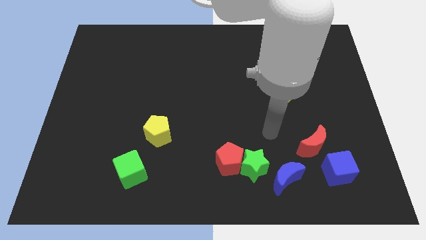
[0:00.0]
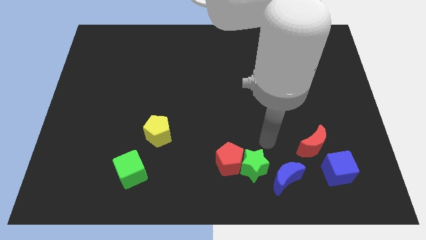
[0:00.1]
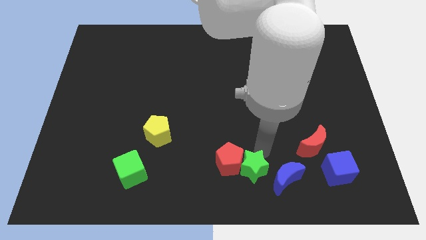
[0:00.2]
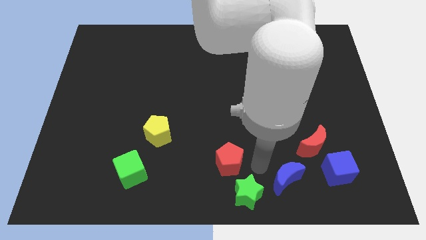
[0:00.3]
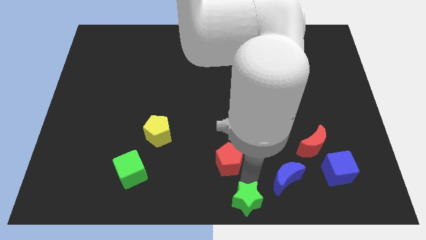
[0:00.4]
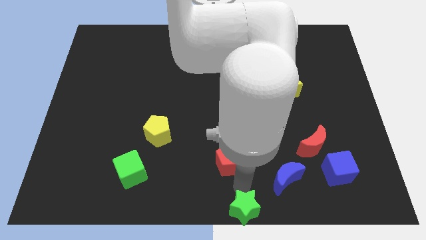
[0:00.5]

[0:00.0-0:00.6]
pull the red pentagon apart from the green star

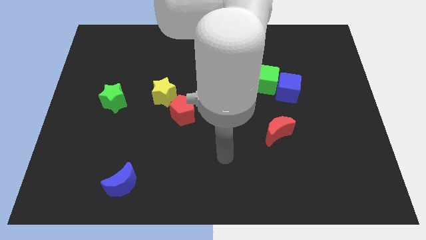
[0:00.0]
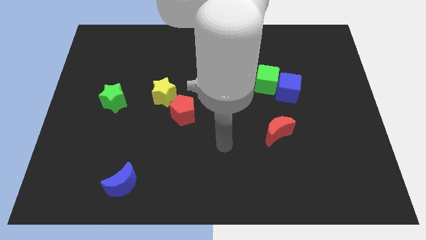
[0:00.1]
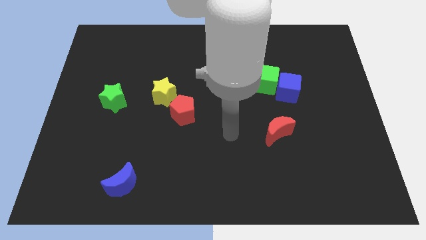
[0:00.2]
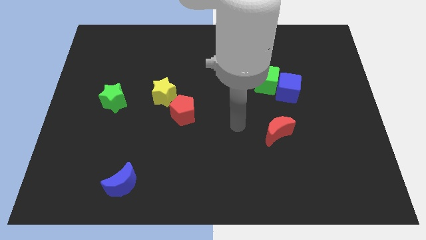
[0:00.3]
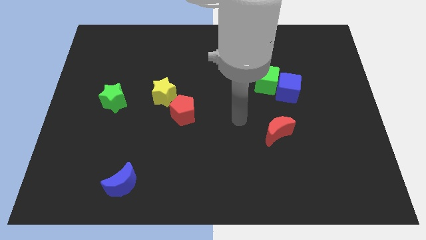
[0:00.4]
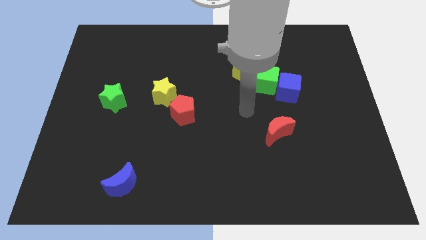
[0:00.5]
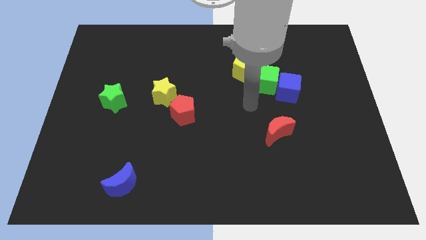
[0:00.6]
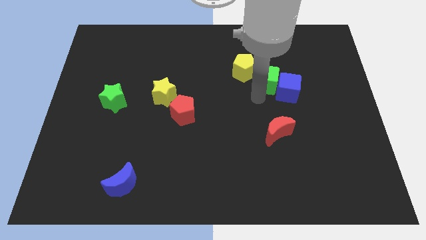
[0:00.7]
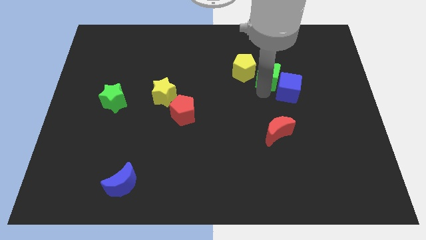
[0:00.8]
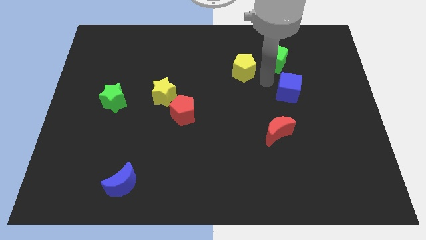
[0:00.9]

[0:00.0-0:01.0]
separate the blue cube from the green cube

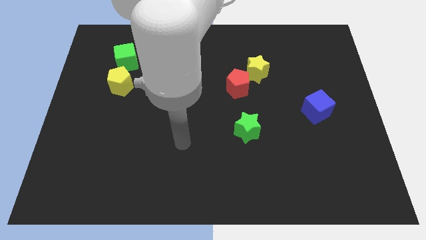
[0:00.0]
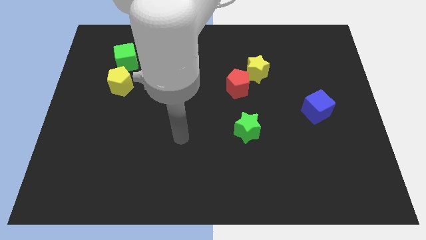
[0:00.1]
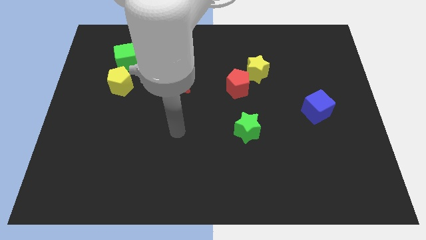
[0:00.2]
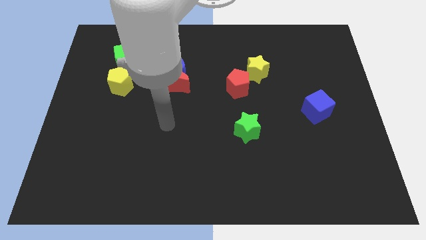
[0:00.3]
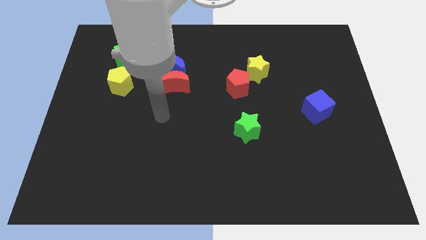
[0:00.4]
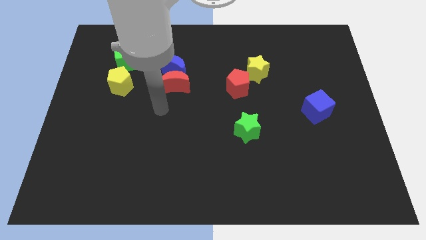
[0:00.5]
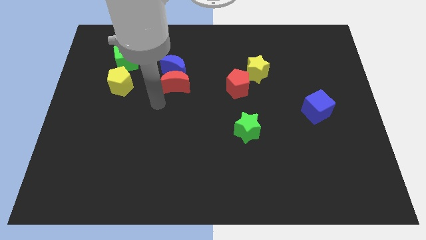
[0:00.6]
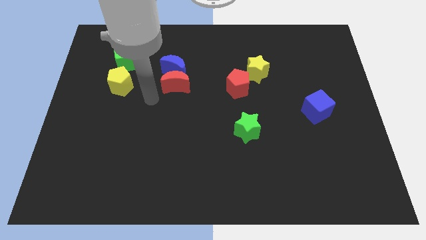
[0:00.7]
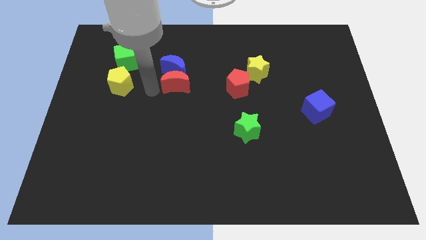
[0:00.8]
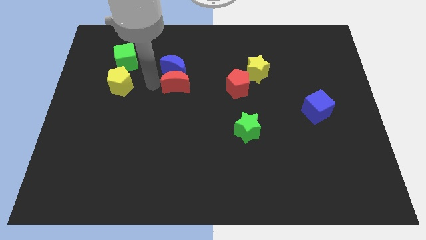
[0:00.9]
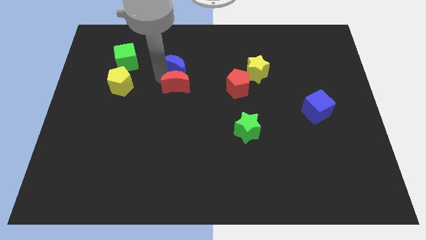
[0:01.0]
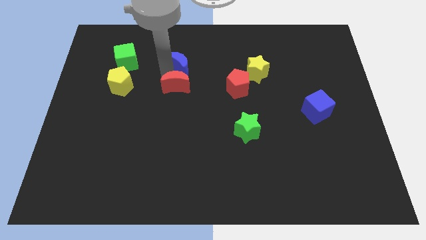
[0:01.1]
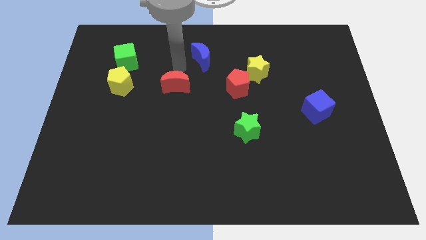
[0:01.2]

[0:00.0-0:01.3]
pull the red moon apart from the blue moon

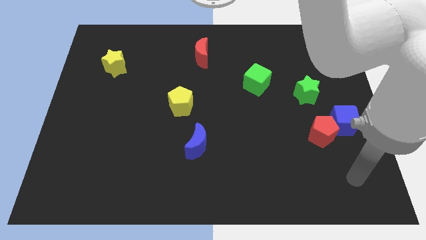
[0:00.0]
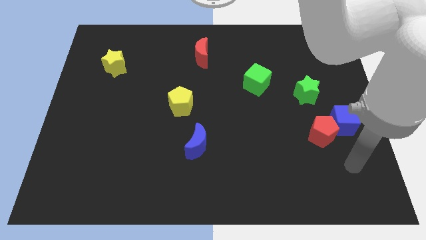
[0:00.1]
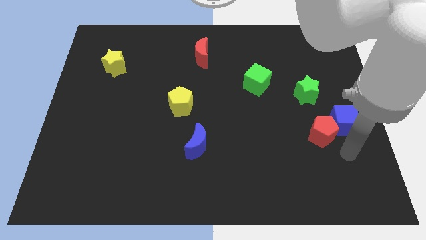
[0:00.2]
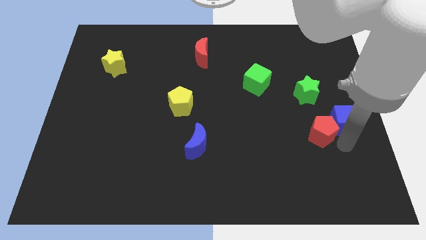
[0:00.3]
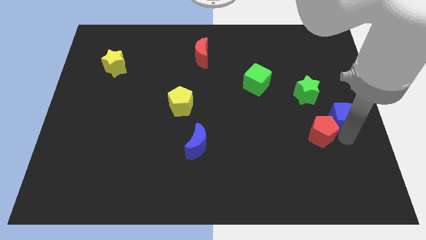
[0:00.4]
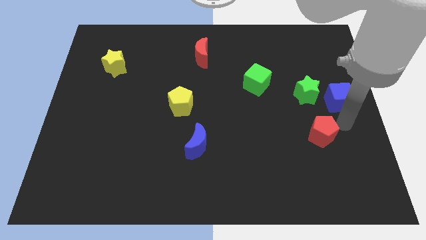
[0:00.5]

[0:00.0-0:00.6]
separate the red pentagon from the blue cube

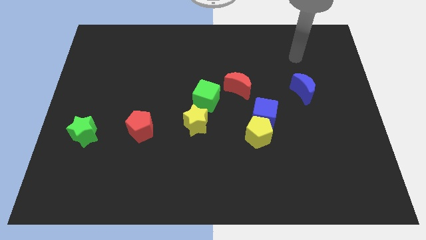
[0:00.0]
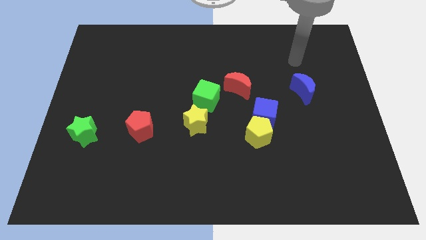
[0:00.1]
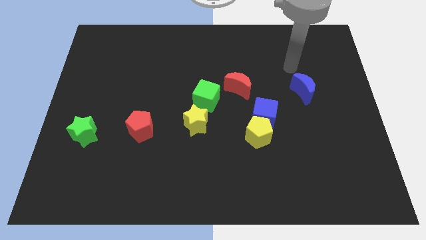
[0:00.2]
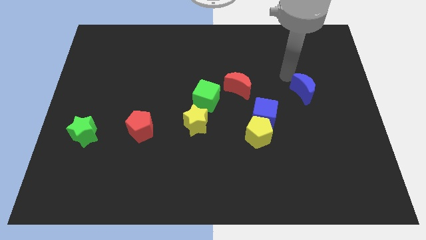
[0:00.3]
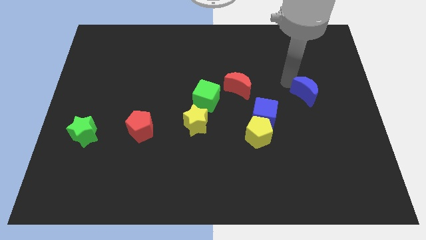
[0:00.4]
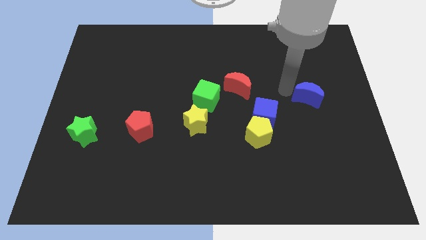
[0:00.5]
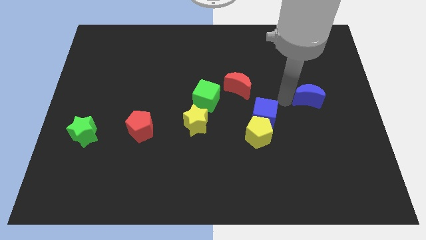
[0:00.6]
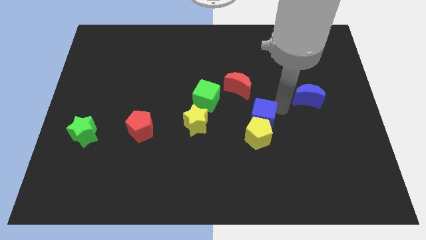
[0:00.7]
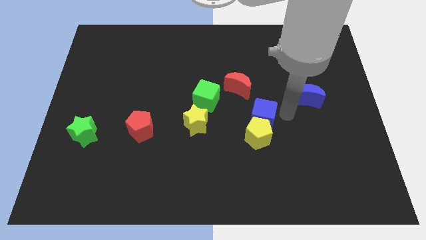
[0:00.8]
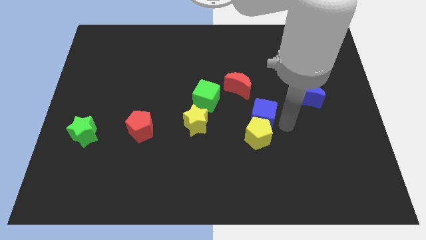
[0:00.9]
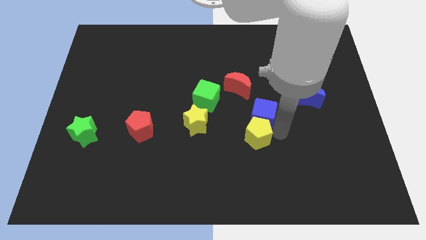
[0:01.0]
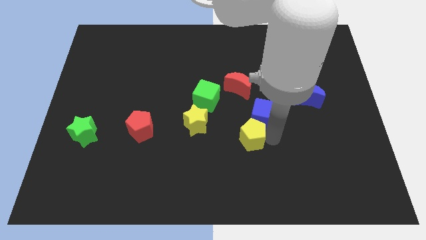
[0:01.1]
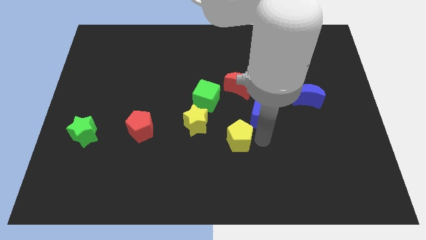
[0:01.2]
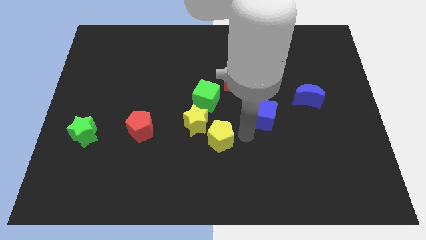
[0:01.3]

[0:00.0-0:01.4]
pull the blue cube apart from the yellow pentagon

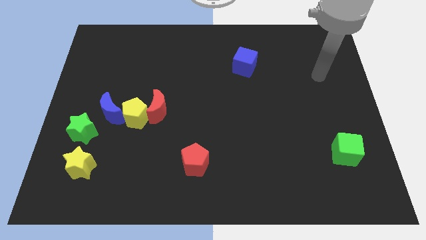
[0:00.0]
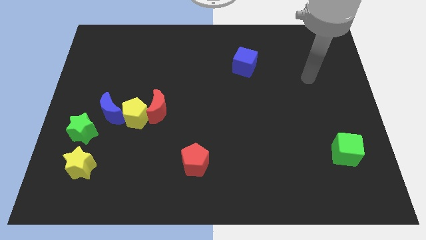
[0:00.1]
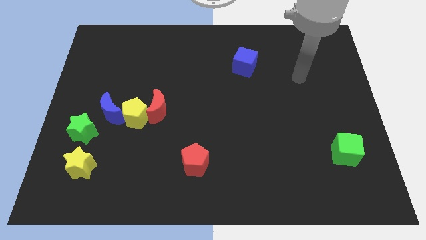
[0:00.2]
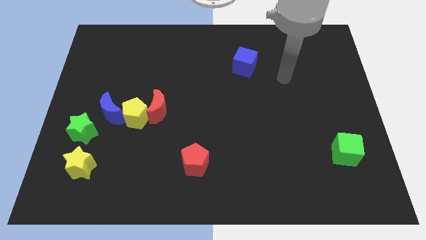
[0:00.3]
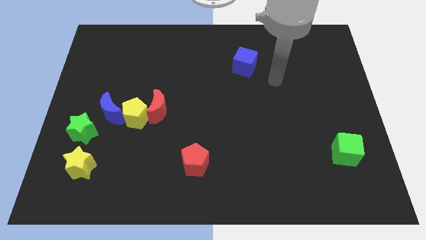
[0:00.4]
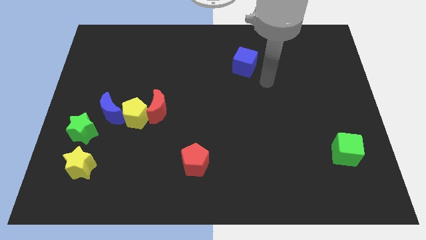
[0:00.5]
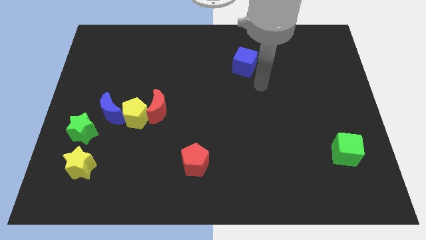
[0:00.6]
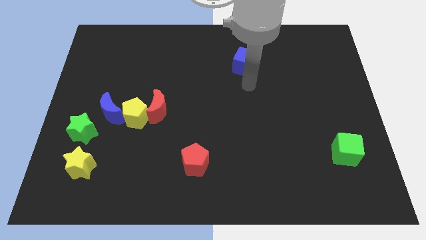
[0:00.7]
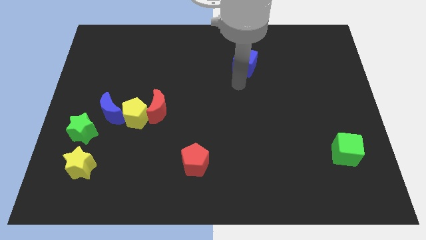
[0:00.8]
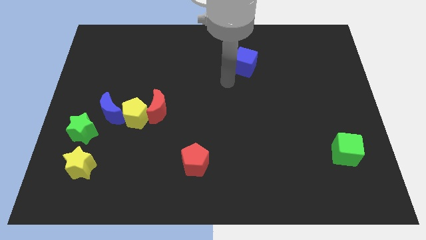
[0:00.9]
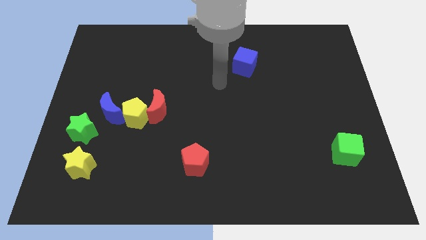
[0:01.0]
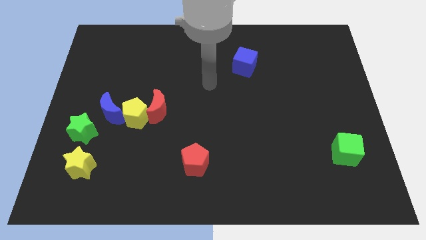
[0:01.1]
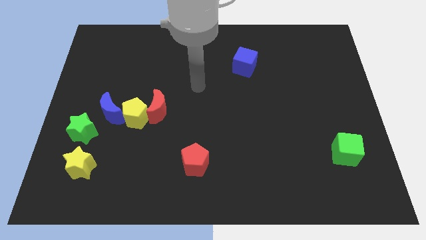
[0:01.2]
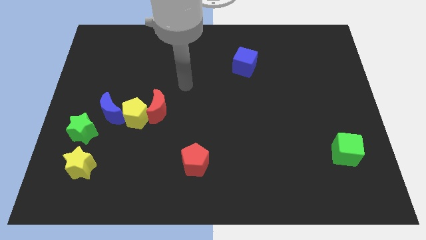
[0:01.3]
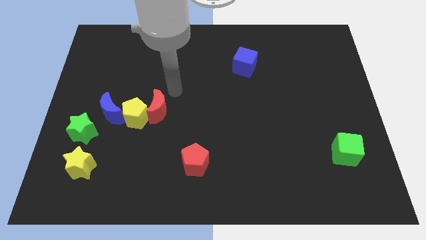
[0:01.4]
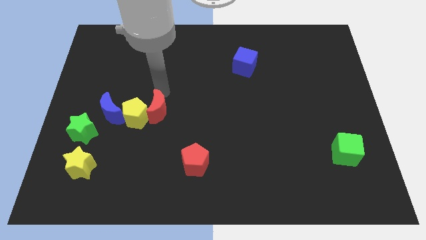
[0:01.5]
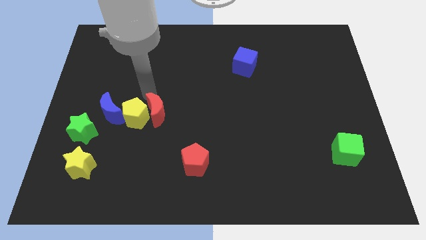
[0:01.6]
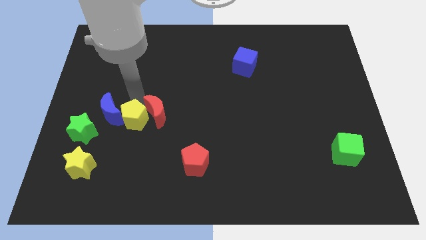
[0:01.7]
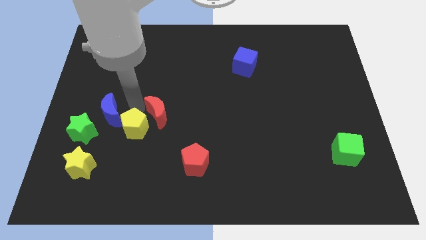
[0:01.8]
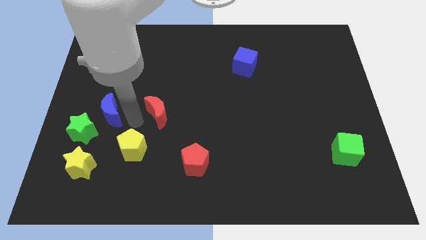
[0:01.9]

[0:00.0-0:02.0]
pull the red moon apart from the yellow pentagon

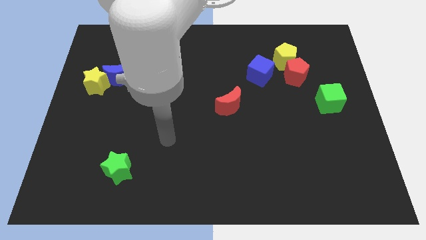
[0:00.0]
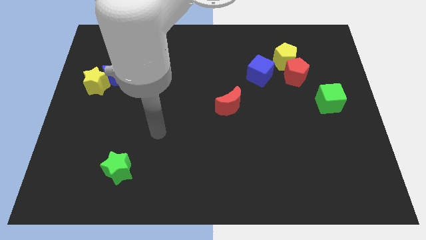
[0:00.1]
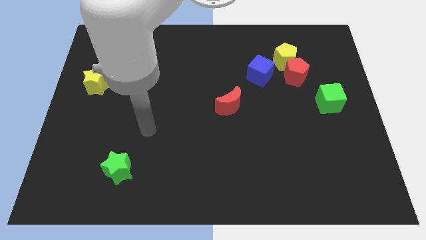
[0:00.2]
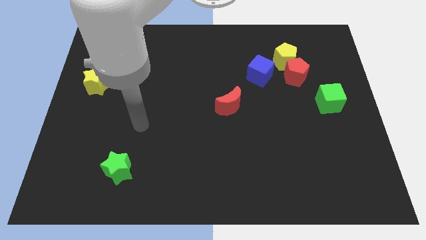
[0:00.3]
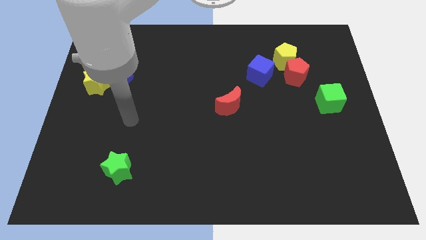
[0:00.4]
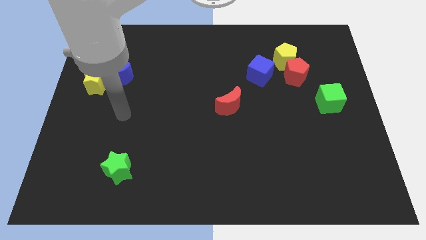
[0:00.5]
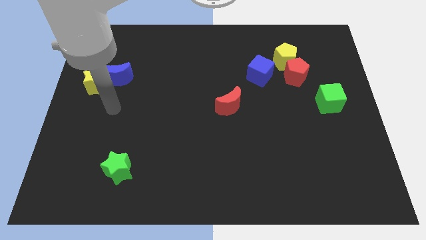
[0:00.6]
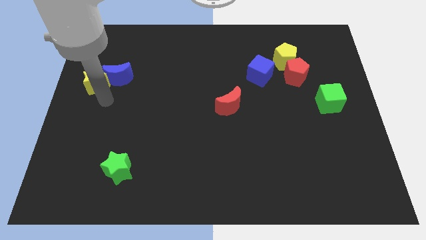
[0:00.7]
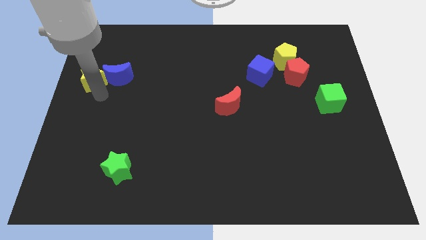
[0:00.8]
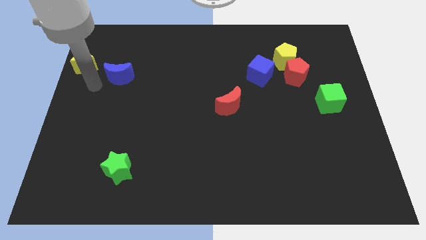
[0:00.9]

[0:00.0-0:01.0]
pull the blue moon apart from the yellow star

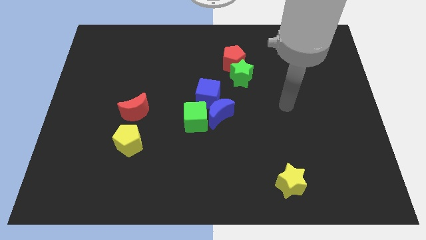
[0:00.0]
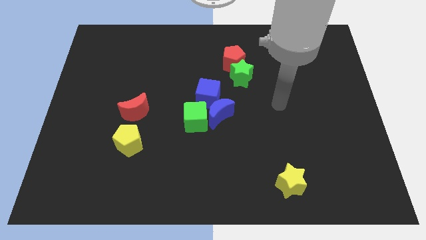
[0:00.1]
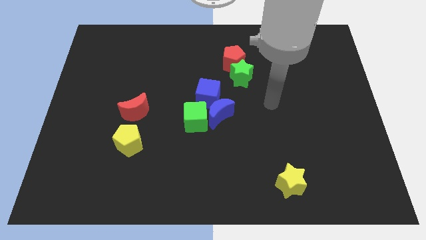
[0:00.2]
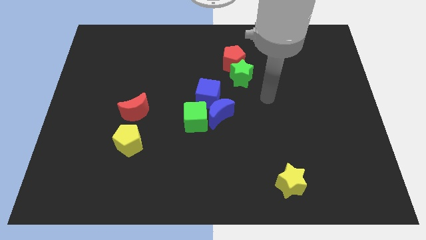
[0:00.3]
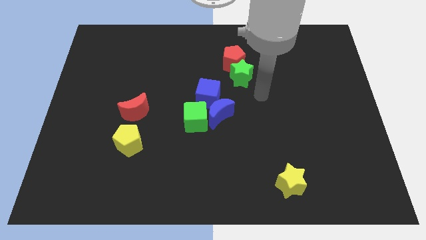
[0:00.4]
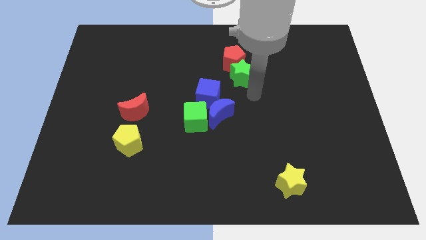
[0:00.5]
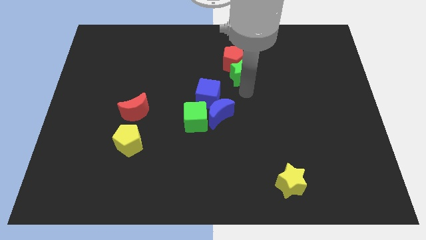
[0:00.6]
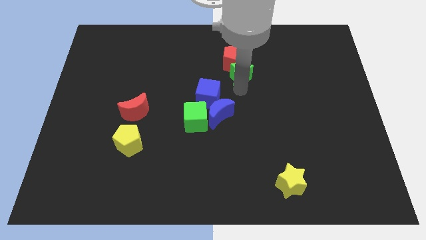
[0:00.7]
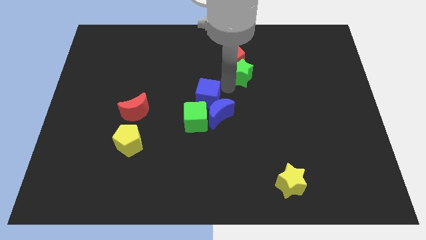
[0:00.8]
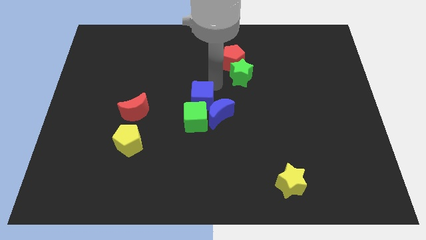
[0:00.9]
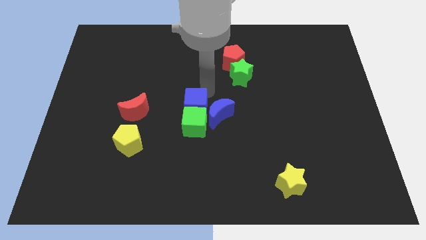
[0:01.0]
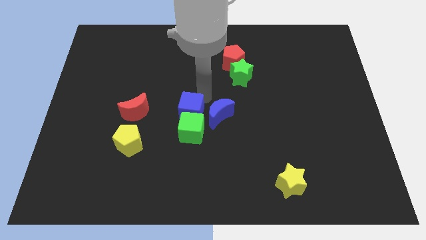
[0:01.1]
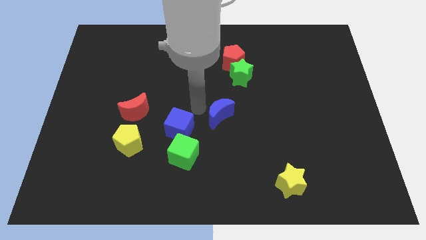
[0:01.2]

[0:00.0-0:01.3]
pull the blue moon apart from the green cube and blue cube
